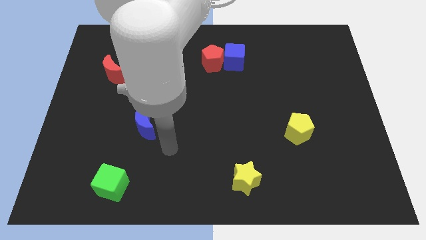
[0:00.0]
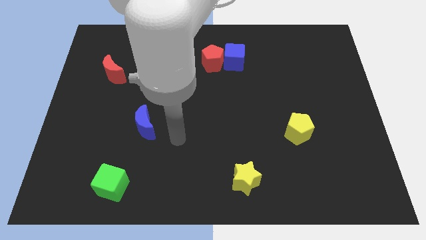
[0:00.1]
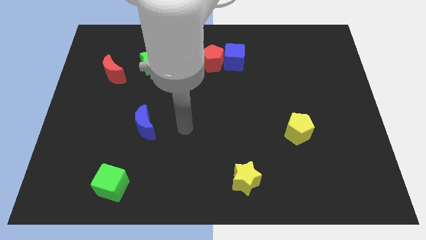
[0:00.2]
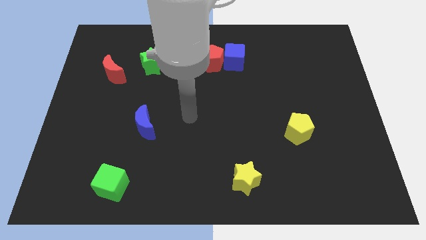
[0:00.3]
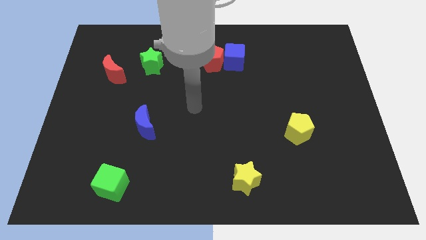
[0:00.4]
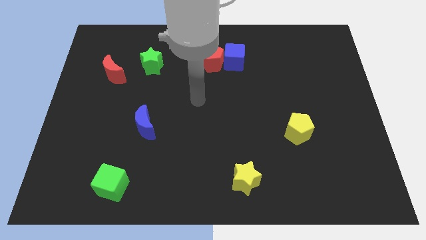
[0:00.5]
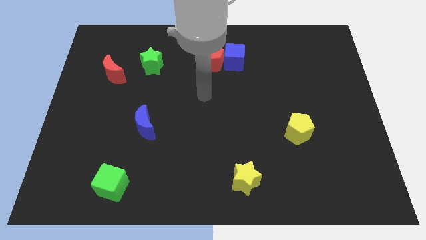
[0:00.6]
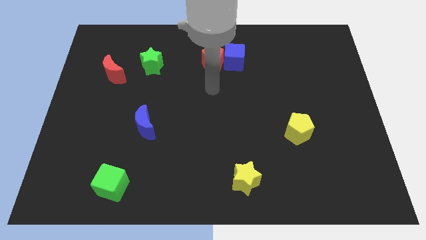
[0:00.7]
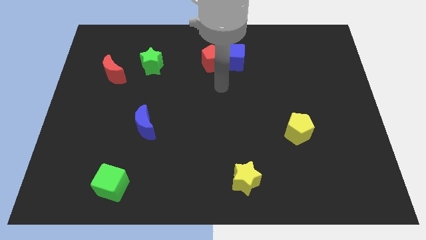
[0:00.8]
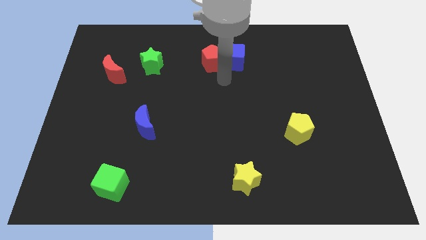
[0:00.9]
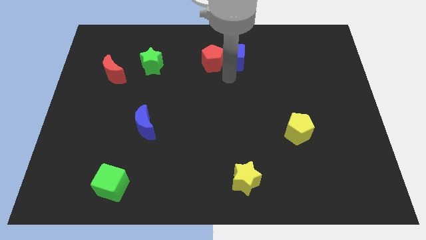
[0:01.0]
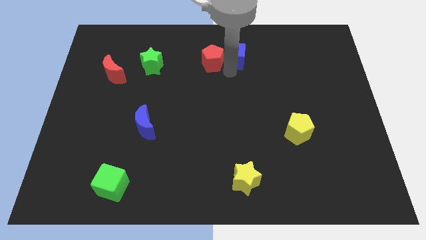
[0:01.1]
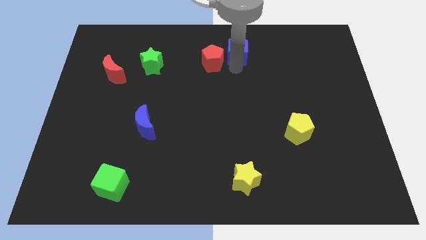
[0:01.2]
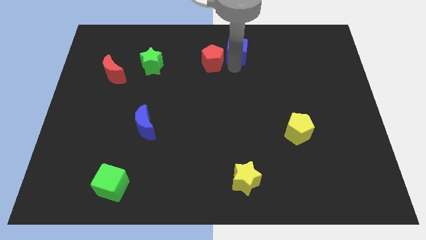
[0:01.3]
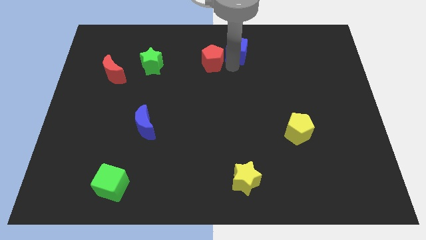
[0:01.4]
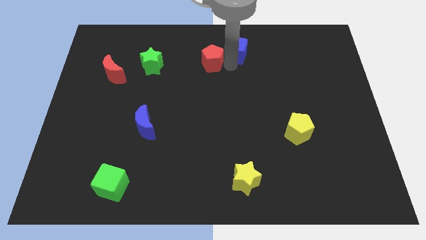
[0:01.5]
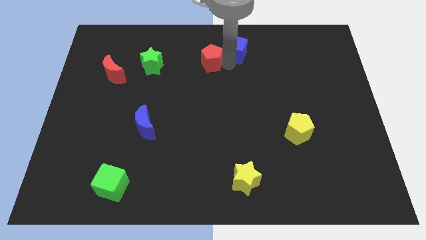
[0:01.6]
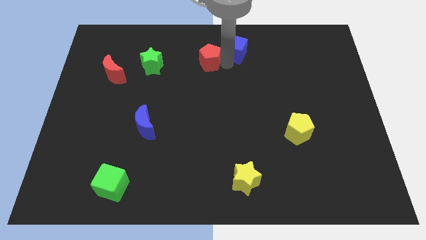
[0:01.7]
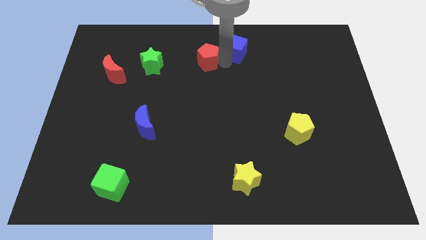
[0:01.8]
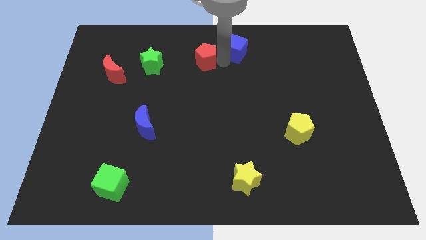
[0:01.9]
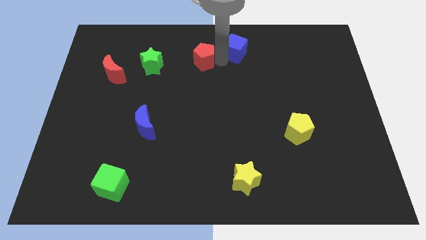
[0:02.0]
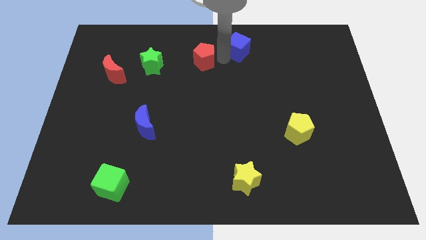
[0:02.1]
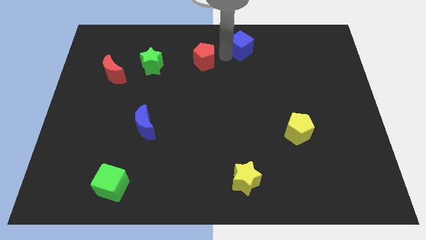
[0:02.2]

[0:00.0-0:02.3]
separate the red pentagon from the blue cube

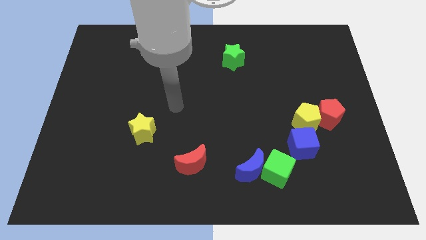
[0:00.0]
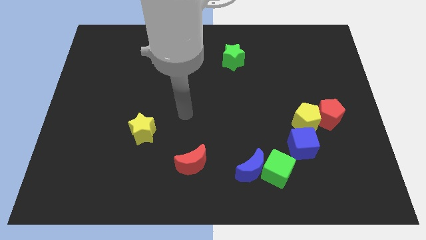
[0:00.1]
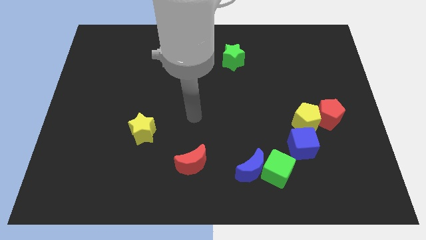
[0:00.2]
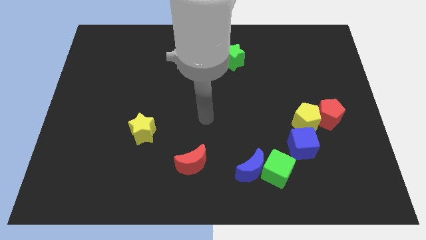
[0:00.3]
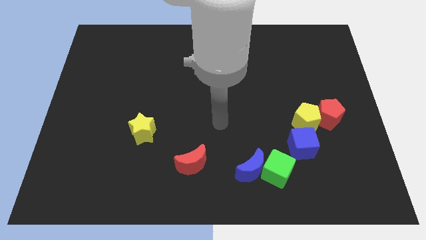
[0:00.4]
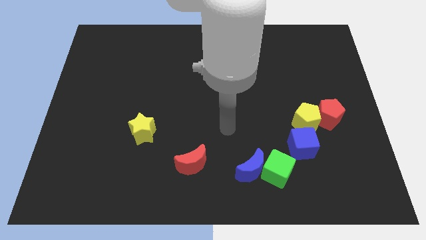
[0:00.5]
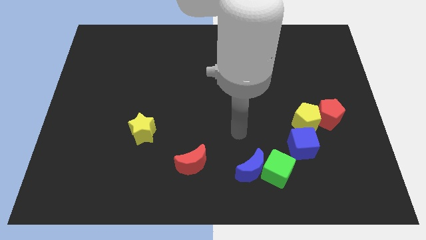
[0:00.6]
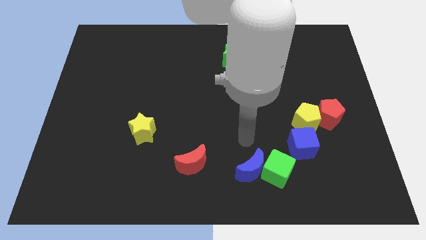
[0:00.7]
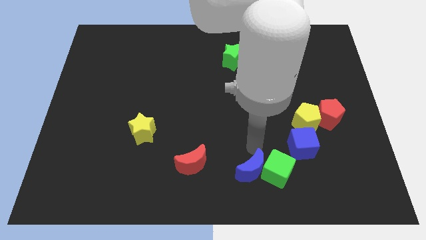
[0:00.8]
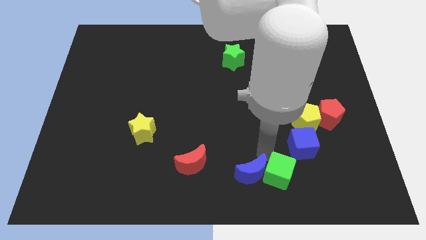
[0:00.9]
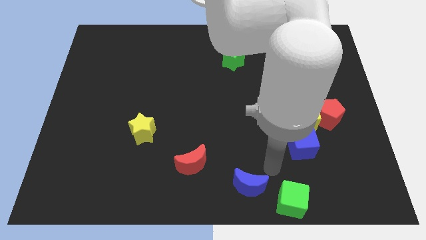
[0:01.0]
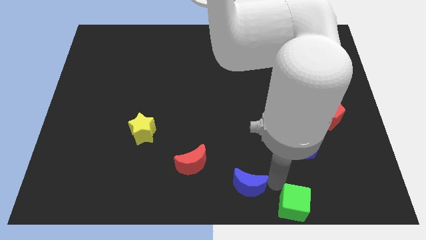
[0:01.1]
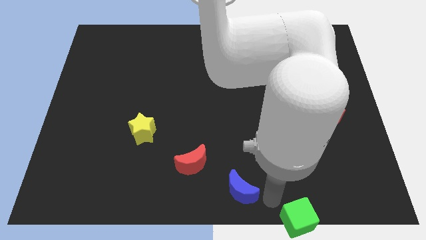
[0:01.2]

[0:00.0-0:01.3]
move the blue moon away from the green cube

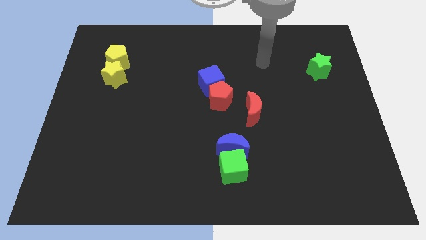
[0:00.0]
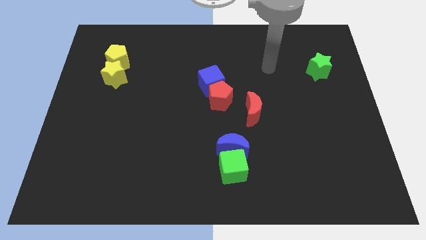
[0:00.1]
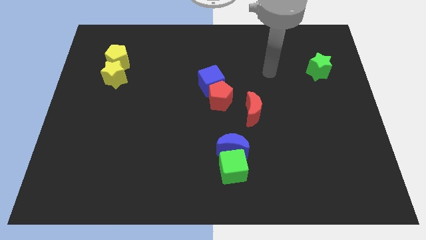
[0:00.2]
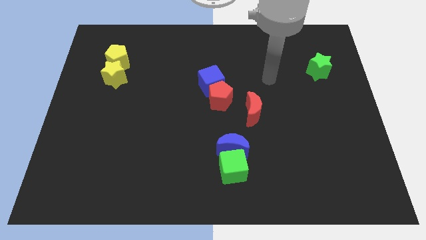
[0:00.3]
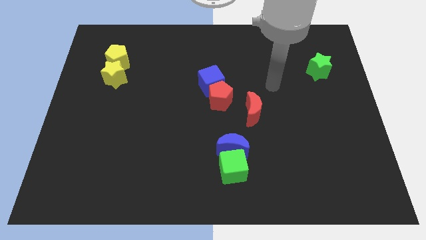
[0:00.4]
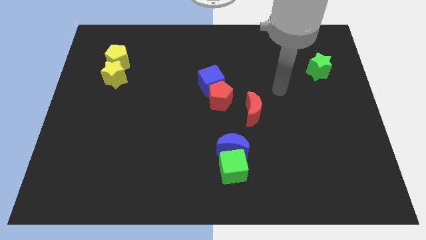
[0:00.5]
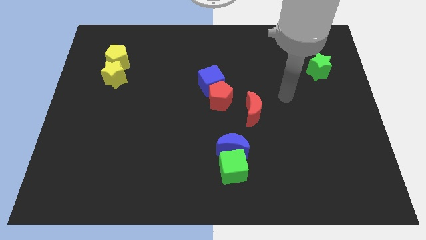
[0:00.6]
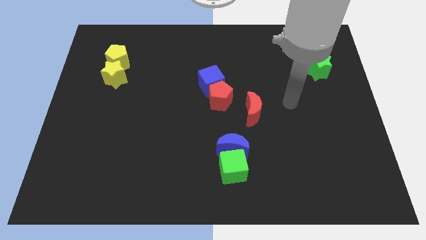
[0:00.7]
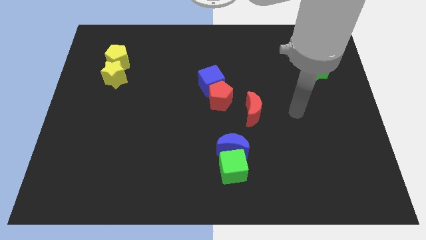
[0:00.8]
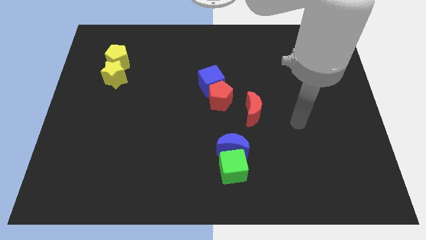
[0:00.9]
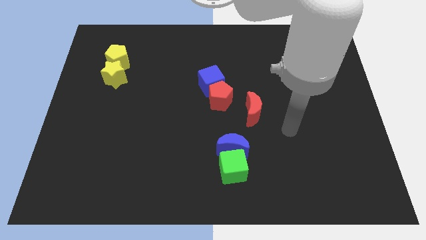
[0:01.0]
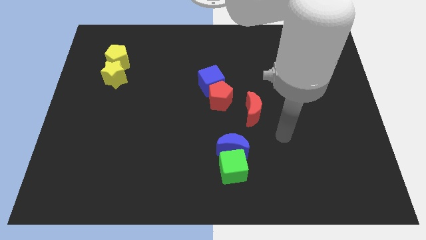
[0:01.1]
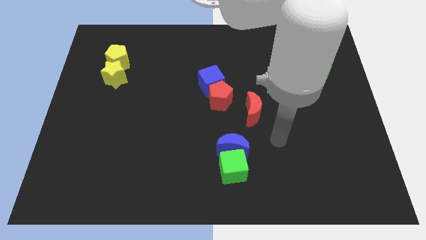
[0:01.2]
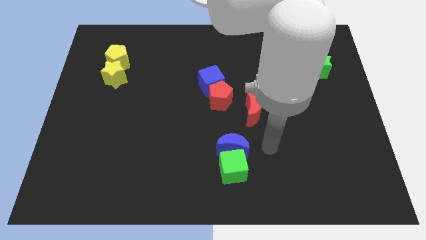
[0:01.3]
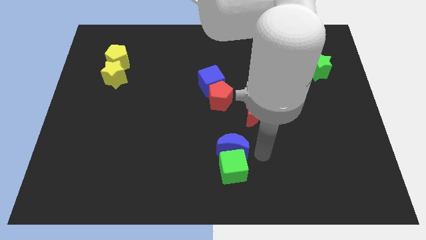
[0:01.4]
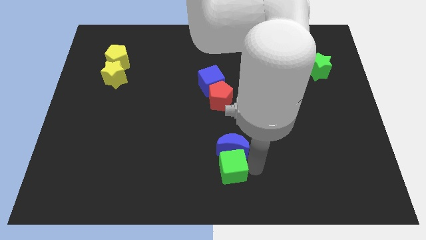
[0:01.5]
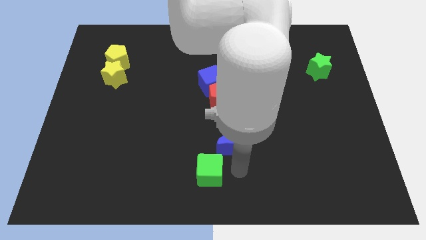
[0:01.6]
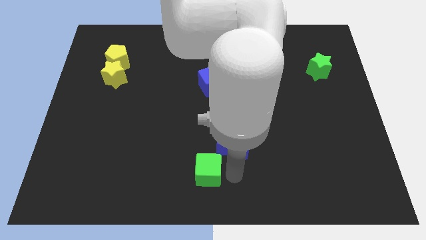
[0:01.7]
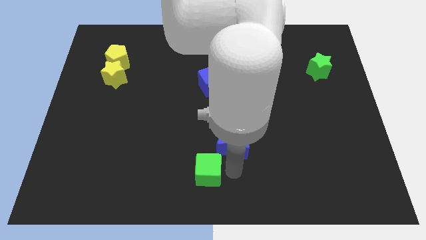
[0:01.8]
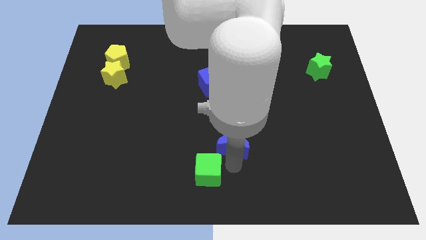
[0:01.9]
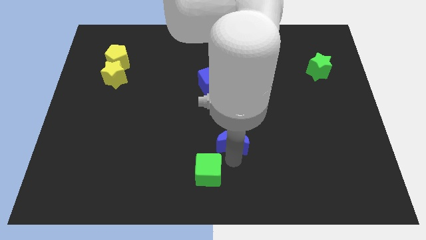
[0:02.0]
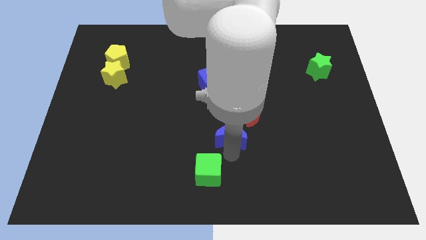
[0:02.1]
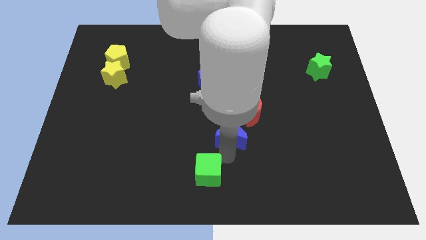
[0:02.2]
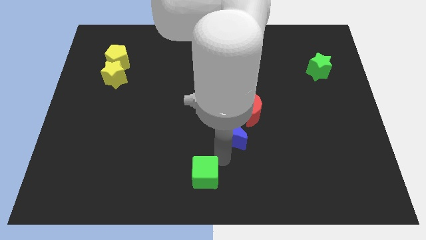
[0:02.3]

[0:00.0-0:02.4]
pull the blue moon apart from the green cube

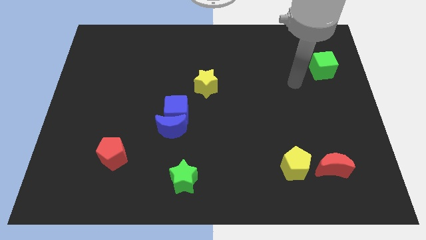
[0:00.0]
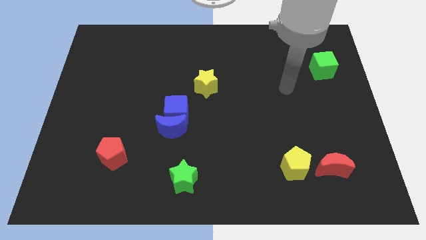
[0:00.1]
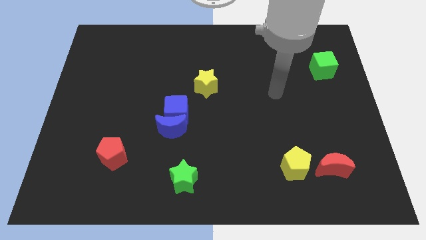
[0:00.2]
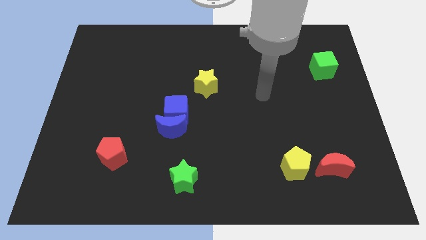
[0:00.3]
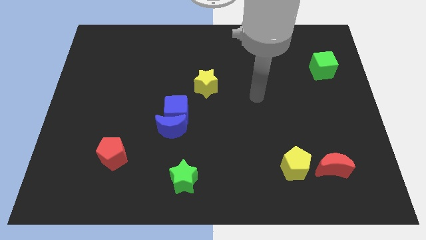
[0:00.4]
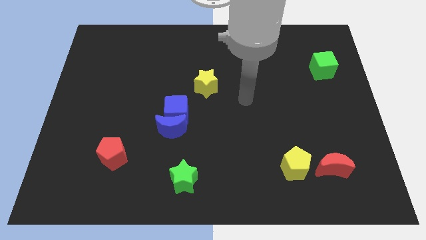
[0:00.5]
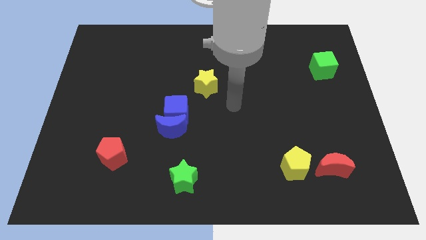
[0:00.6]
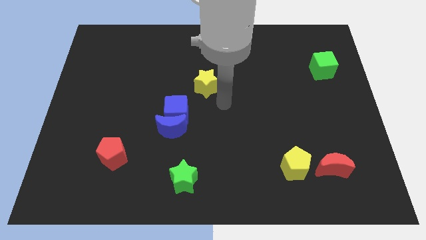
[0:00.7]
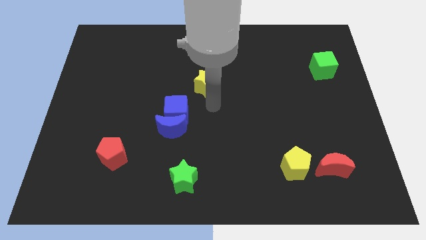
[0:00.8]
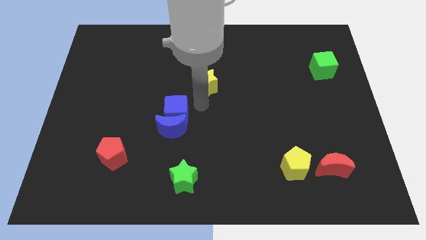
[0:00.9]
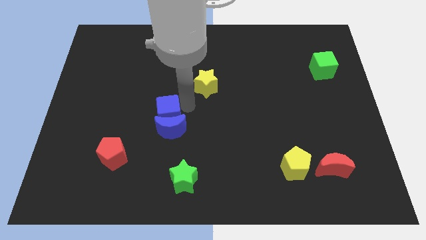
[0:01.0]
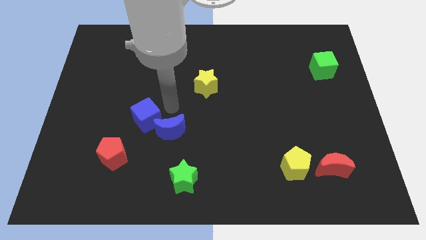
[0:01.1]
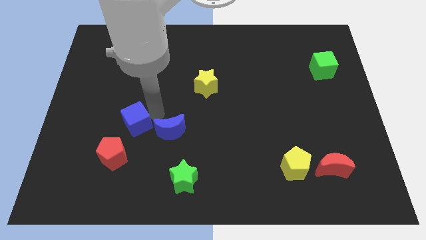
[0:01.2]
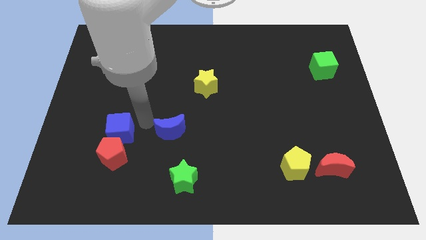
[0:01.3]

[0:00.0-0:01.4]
move the blue moon away from the blue cube

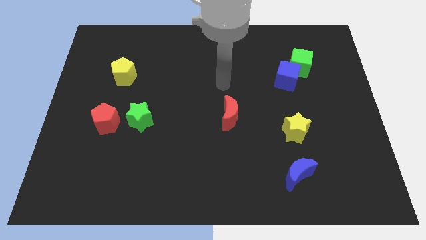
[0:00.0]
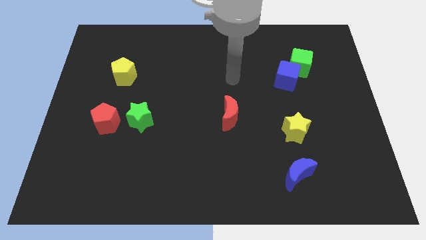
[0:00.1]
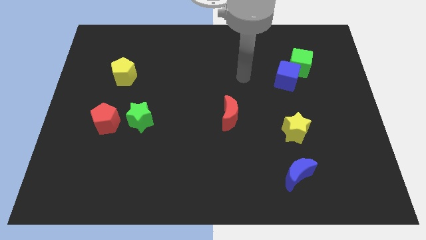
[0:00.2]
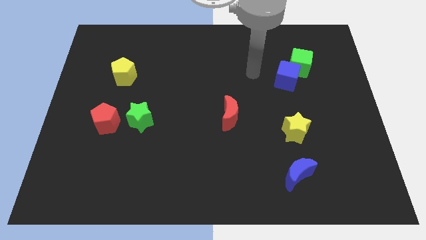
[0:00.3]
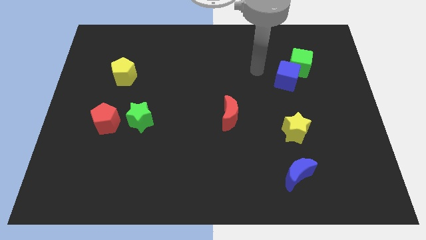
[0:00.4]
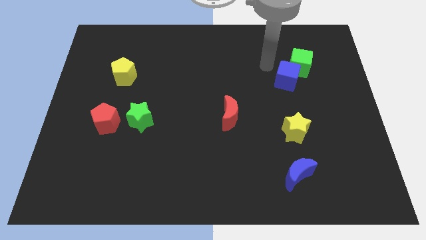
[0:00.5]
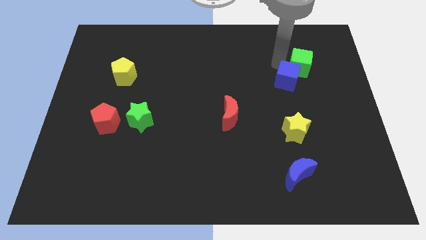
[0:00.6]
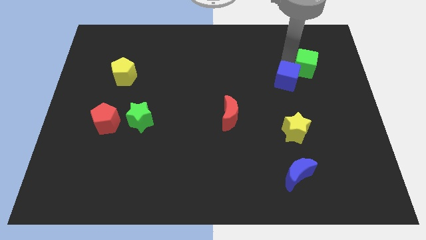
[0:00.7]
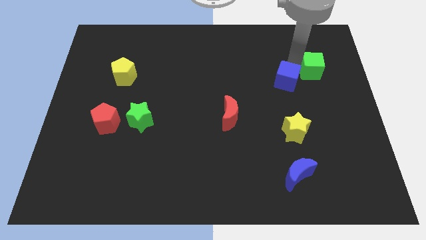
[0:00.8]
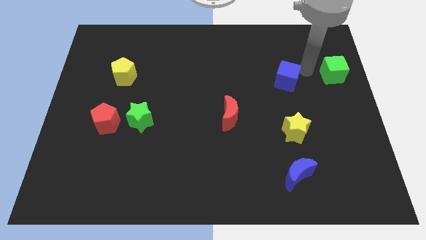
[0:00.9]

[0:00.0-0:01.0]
pull the blue cube apart from the green cube

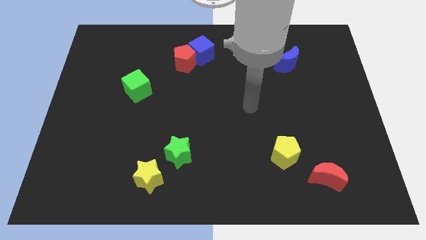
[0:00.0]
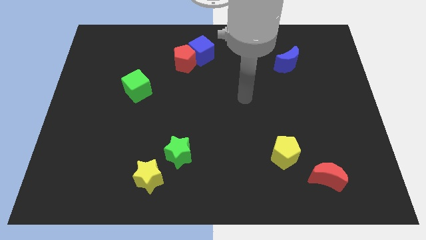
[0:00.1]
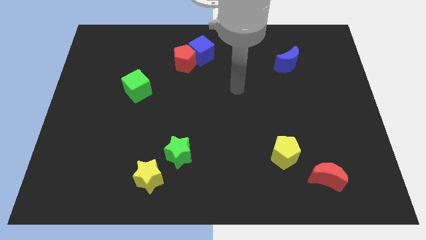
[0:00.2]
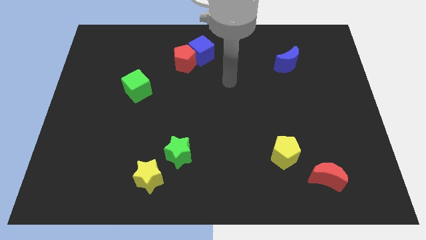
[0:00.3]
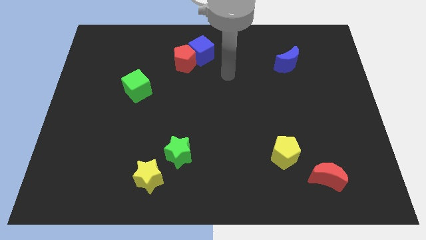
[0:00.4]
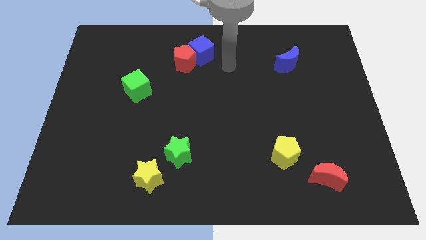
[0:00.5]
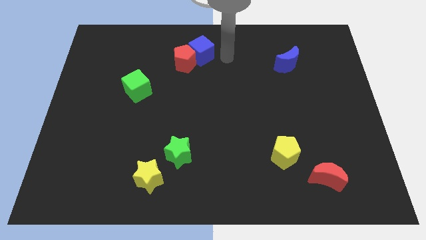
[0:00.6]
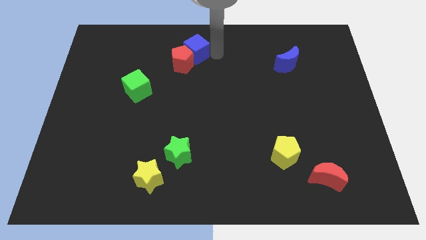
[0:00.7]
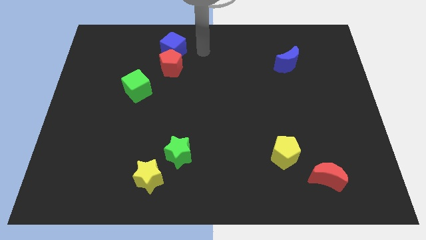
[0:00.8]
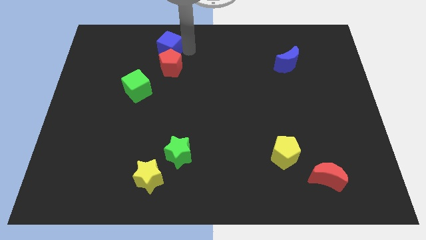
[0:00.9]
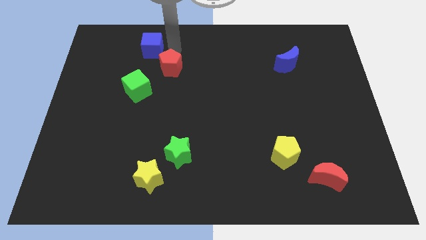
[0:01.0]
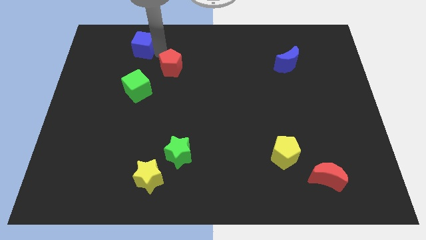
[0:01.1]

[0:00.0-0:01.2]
pull the red pentagon apart from the blue cube
